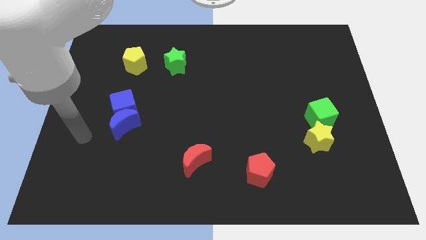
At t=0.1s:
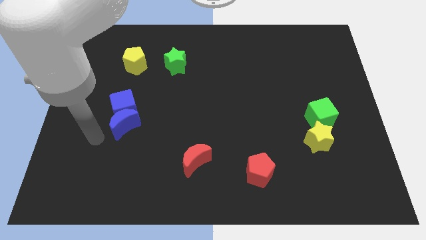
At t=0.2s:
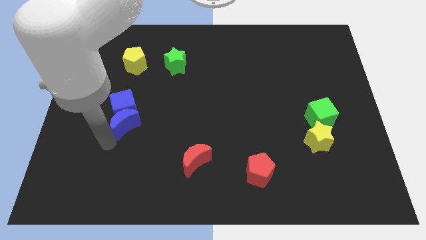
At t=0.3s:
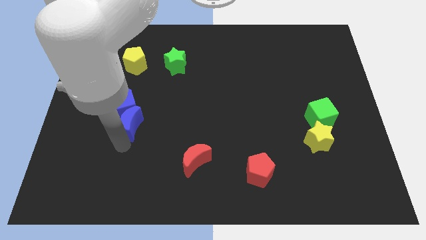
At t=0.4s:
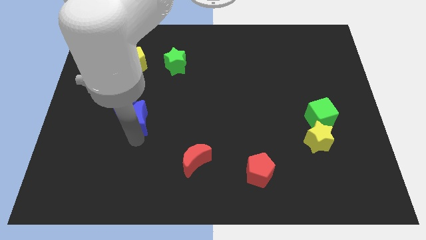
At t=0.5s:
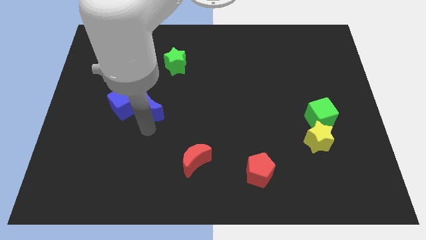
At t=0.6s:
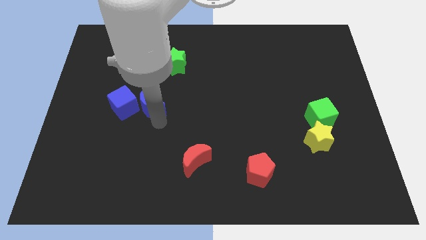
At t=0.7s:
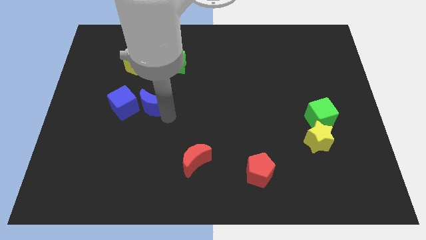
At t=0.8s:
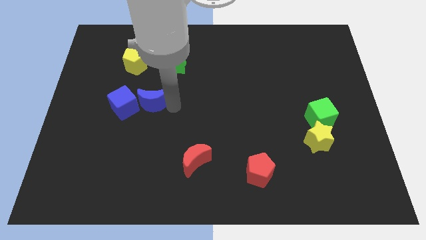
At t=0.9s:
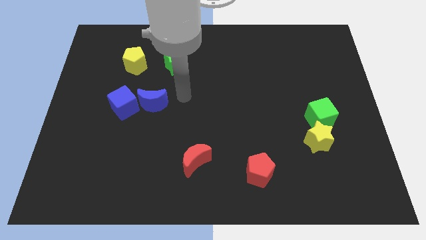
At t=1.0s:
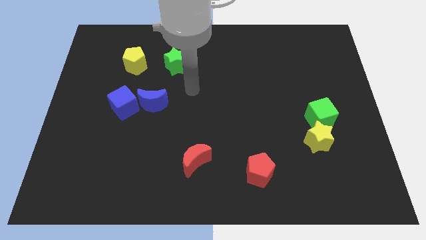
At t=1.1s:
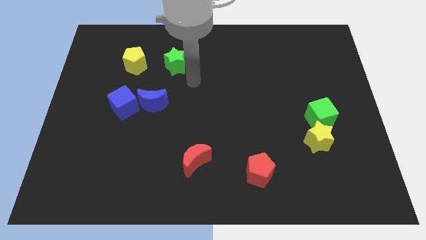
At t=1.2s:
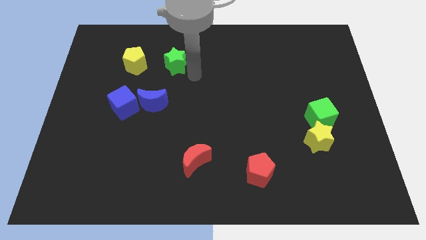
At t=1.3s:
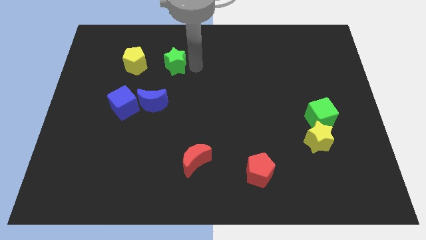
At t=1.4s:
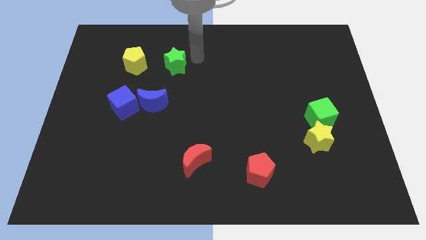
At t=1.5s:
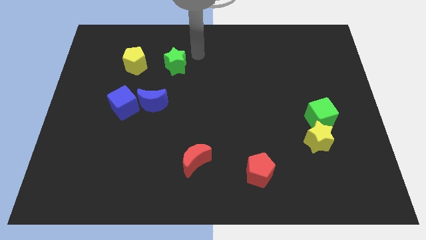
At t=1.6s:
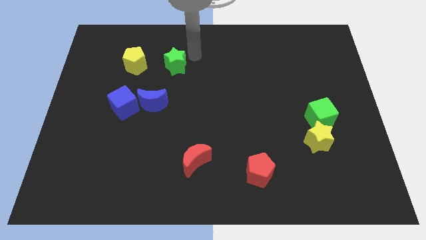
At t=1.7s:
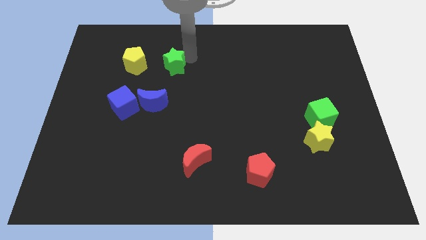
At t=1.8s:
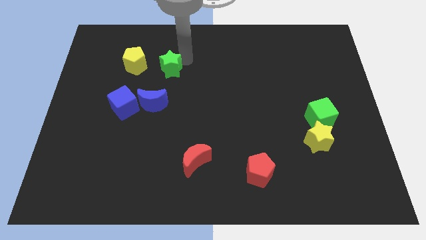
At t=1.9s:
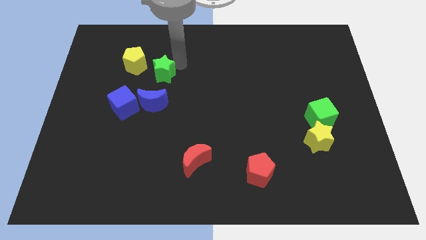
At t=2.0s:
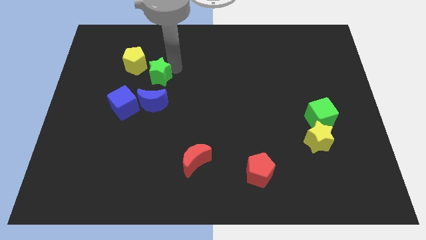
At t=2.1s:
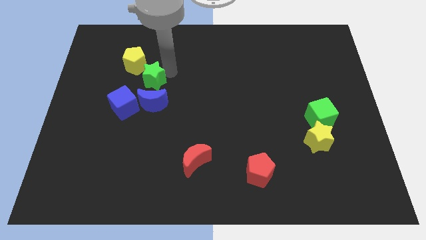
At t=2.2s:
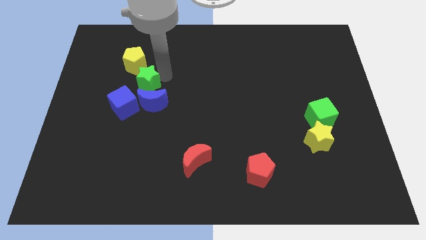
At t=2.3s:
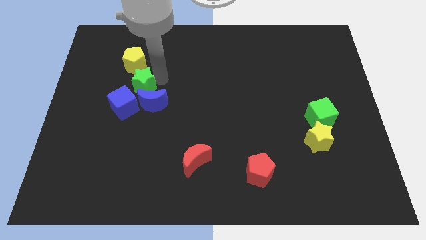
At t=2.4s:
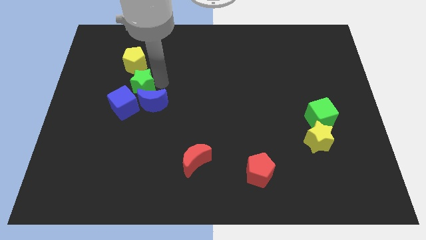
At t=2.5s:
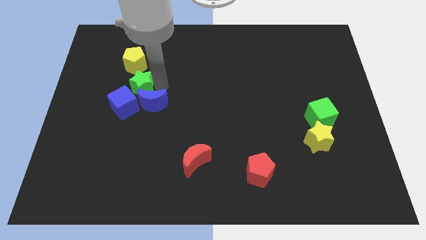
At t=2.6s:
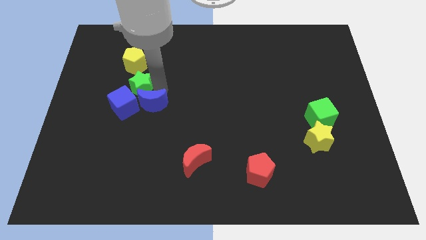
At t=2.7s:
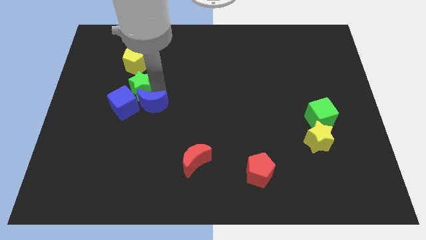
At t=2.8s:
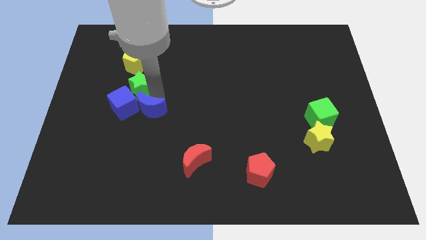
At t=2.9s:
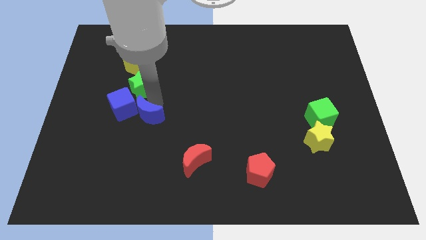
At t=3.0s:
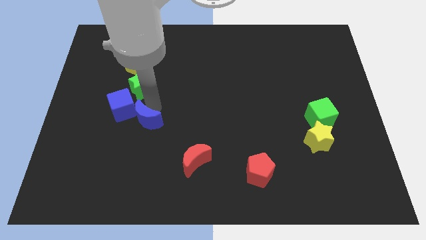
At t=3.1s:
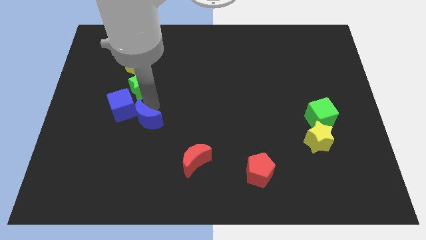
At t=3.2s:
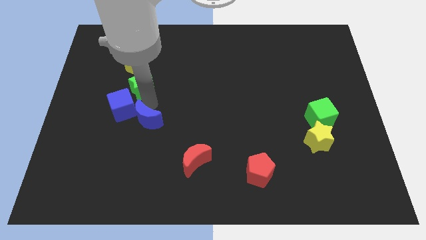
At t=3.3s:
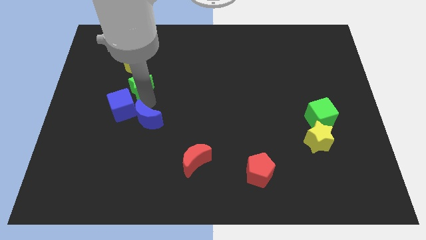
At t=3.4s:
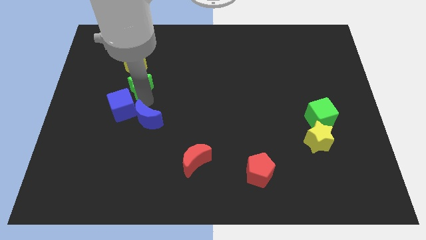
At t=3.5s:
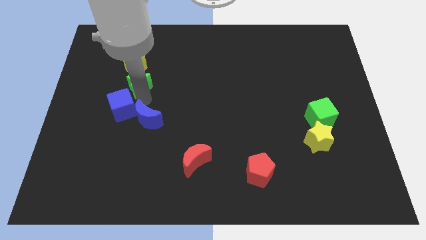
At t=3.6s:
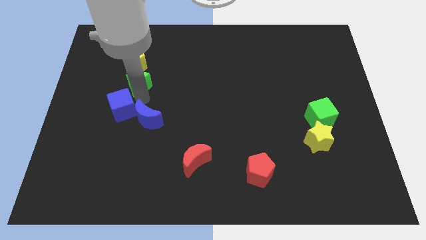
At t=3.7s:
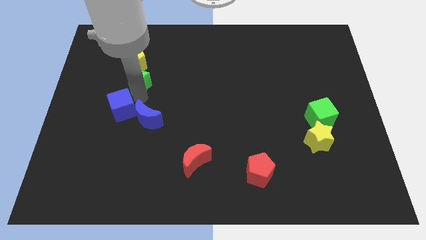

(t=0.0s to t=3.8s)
slightly slide the green star left

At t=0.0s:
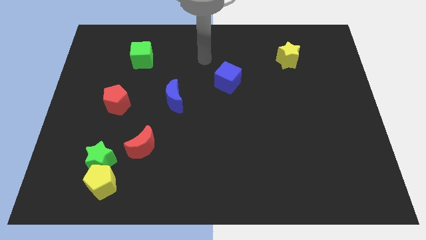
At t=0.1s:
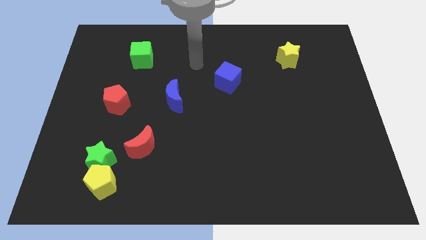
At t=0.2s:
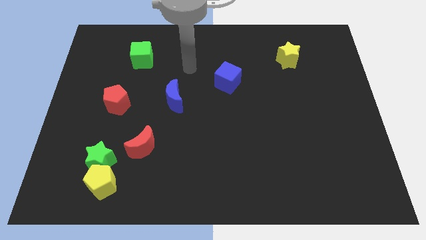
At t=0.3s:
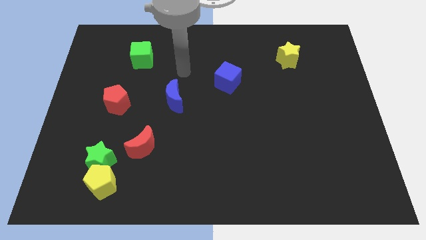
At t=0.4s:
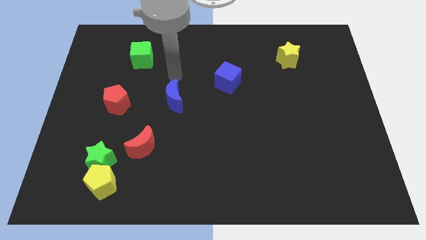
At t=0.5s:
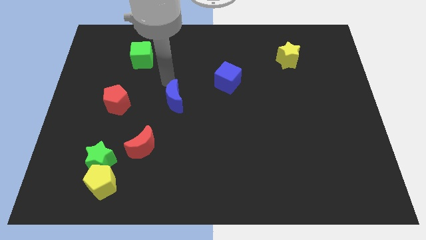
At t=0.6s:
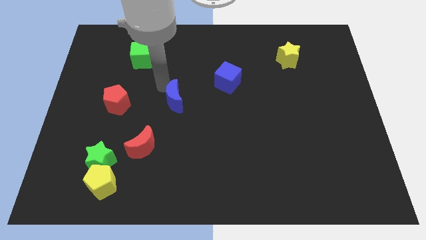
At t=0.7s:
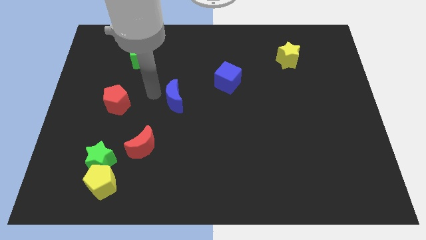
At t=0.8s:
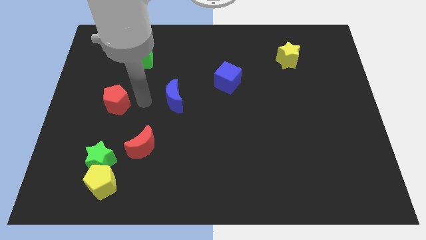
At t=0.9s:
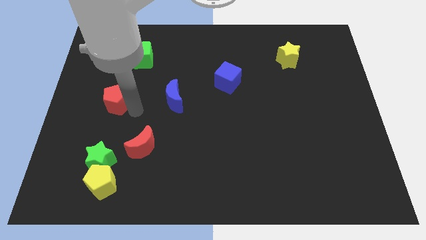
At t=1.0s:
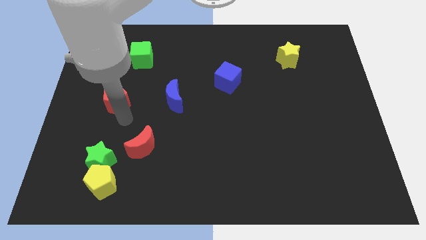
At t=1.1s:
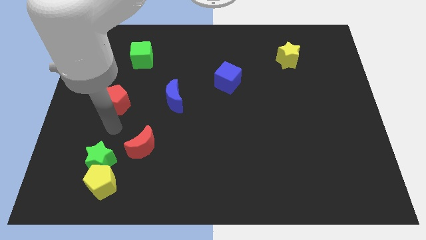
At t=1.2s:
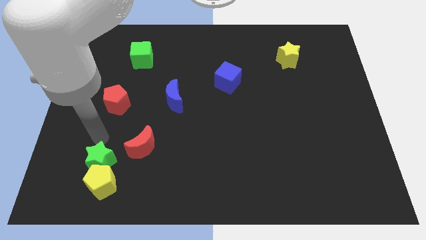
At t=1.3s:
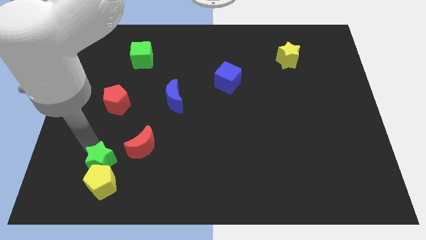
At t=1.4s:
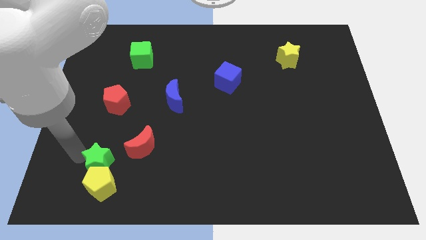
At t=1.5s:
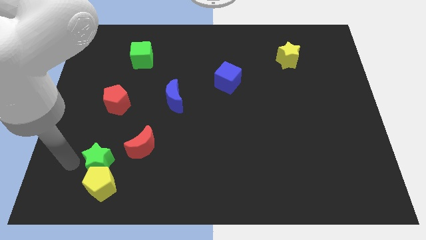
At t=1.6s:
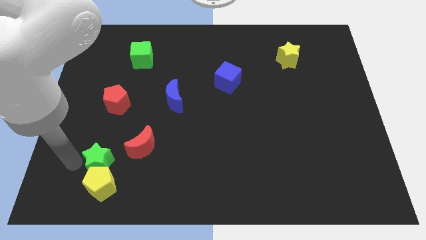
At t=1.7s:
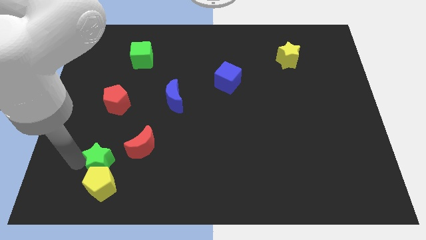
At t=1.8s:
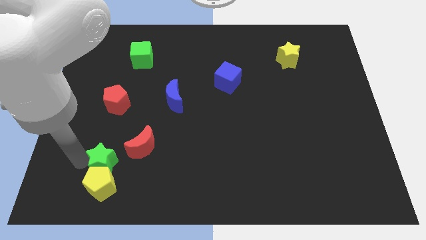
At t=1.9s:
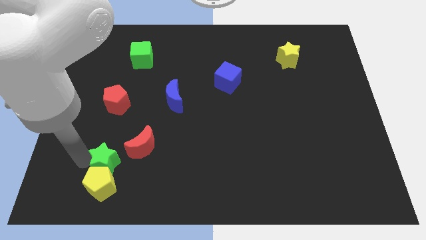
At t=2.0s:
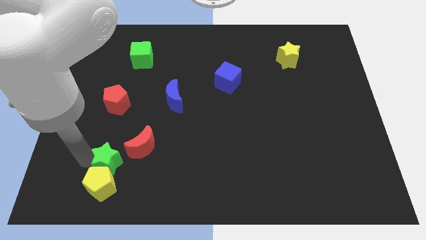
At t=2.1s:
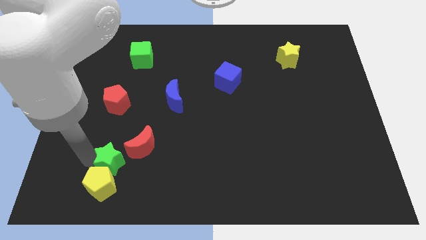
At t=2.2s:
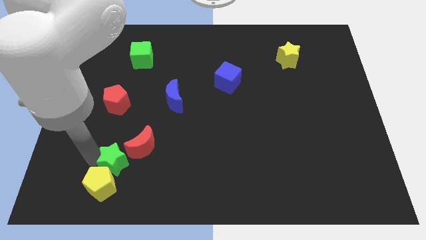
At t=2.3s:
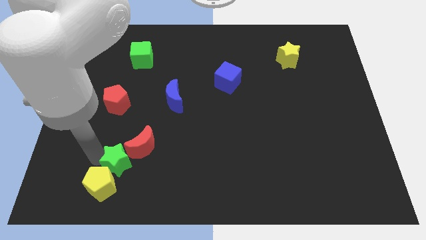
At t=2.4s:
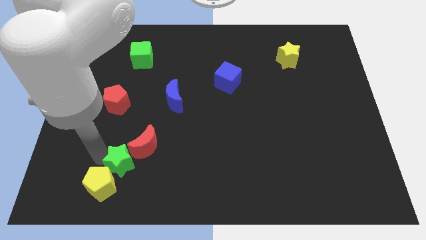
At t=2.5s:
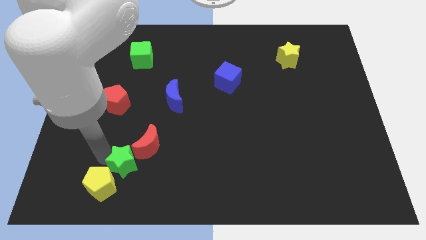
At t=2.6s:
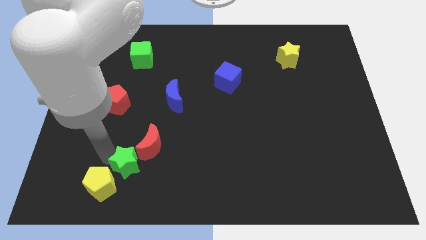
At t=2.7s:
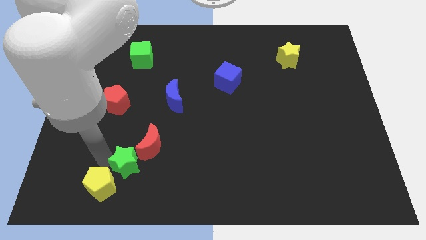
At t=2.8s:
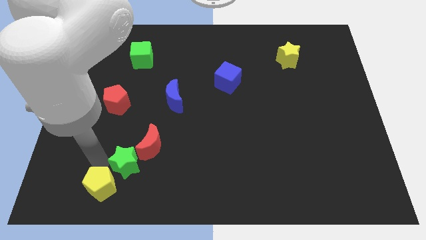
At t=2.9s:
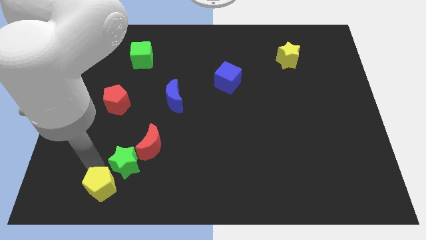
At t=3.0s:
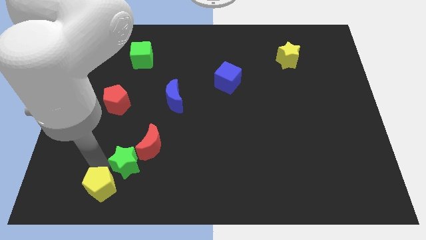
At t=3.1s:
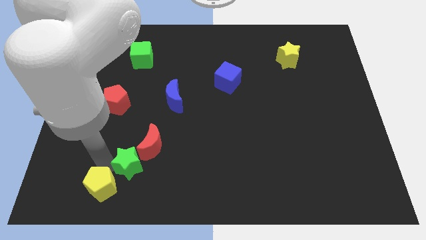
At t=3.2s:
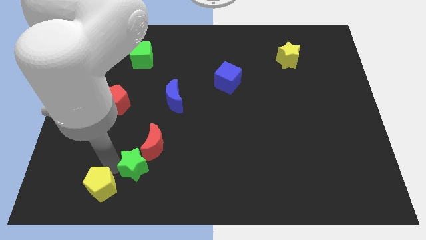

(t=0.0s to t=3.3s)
slide the green star right a little bit

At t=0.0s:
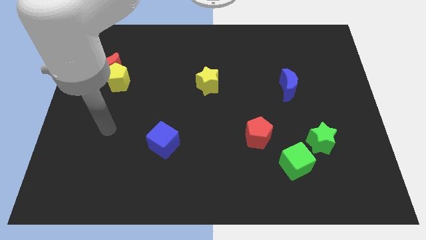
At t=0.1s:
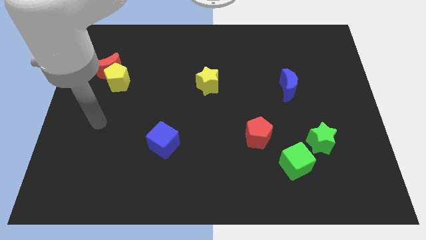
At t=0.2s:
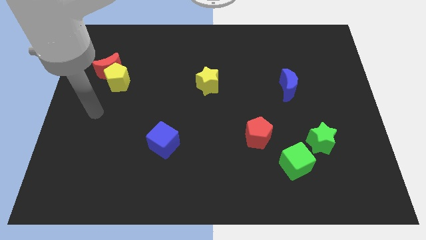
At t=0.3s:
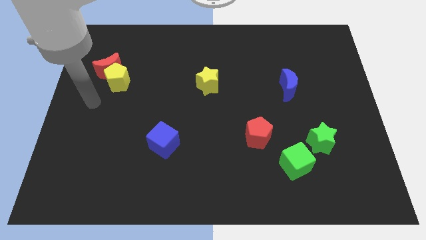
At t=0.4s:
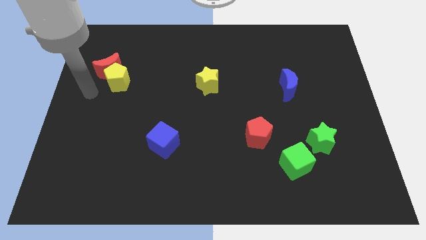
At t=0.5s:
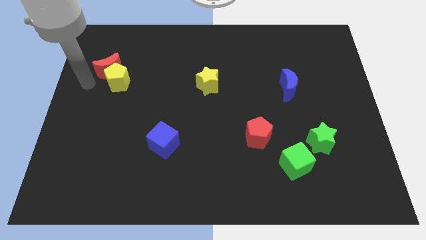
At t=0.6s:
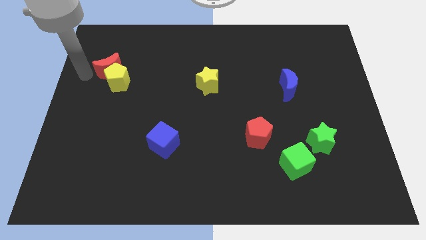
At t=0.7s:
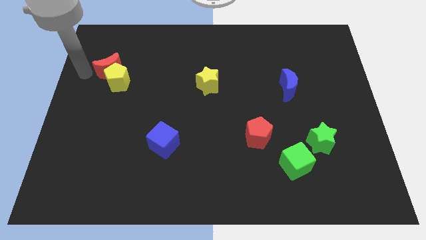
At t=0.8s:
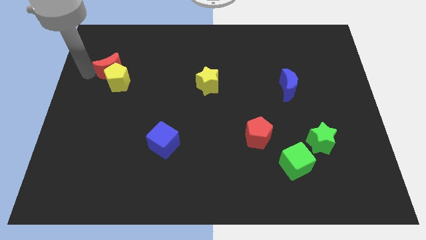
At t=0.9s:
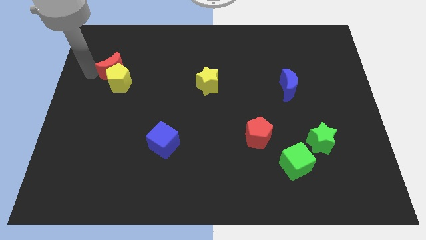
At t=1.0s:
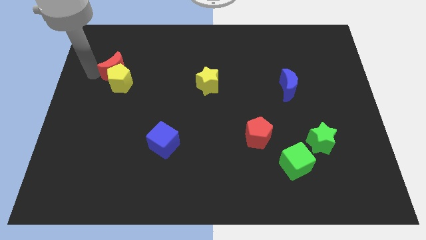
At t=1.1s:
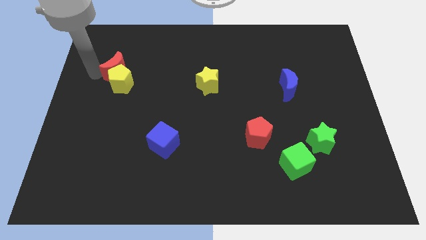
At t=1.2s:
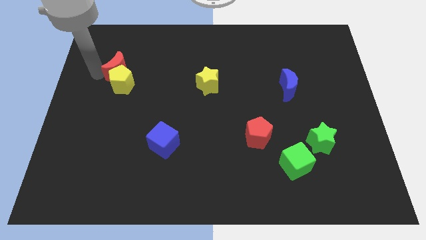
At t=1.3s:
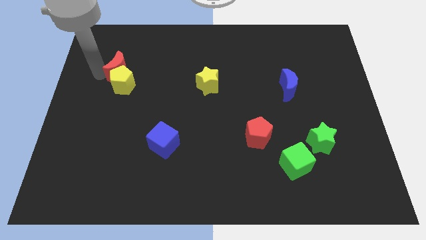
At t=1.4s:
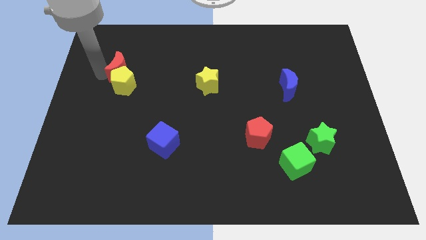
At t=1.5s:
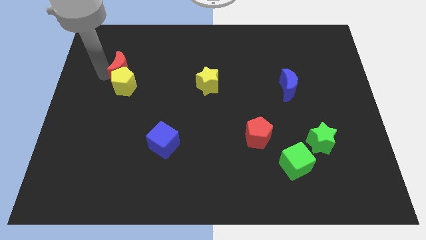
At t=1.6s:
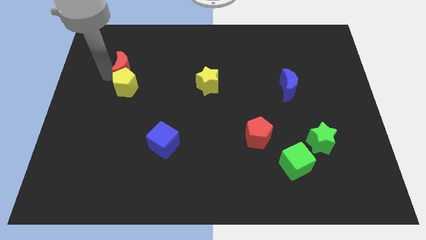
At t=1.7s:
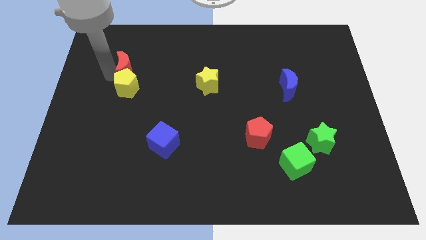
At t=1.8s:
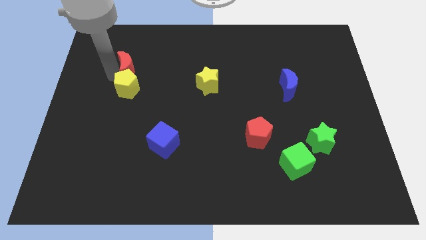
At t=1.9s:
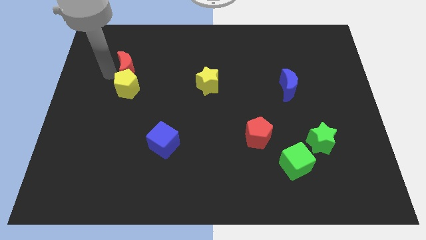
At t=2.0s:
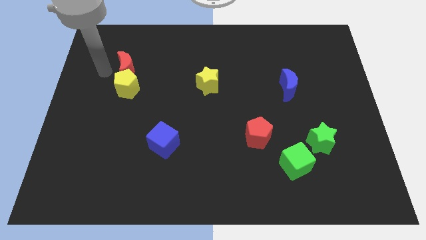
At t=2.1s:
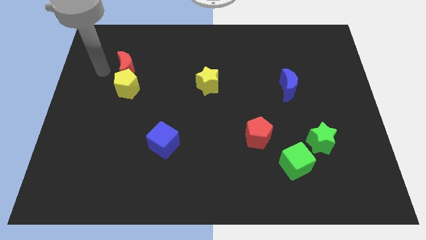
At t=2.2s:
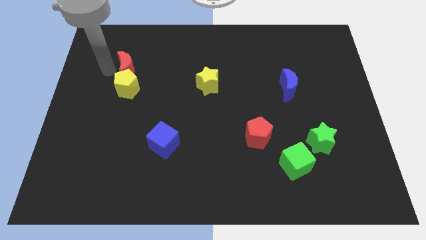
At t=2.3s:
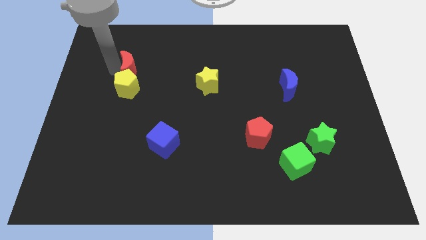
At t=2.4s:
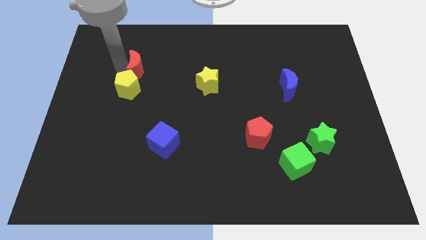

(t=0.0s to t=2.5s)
slide the red moon right a little
